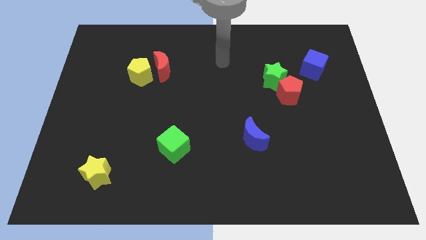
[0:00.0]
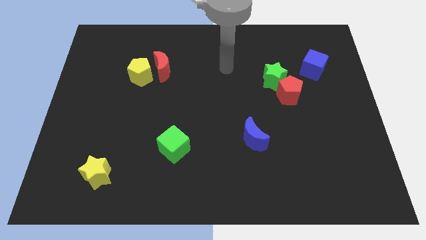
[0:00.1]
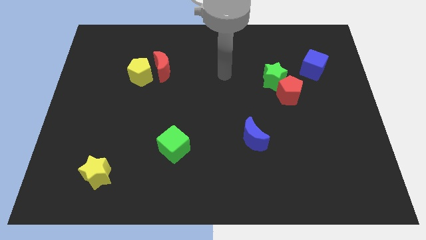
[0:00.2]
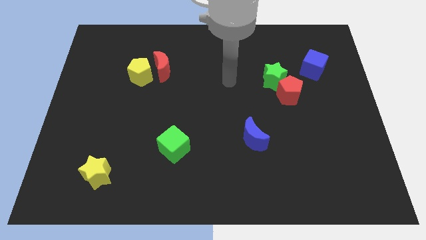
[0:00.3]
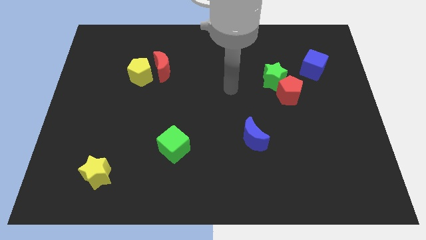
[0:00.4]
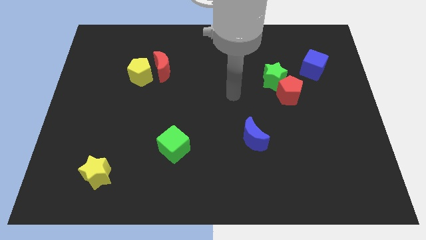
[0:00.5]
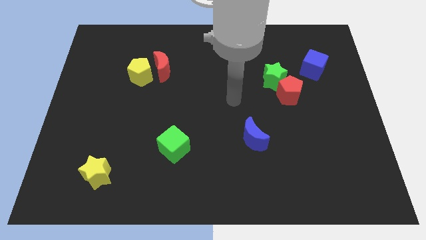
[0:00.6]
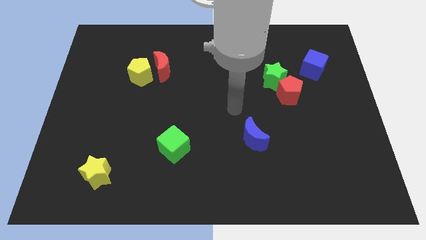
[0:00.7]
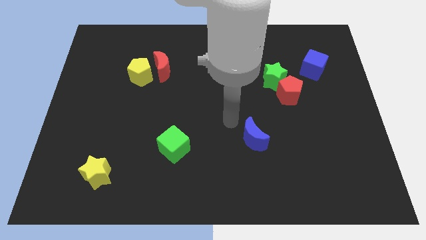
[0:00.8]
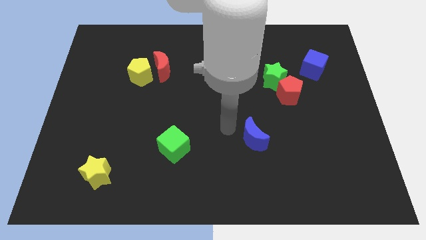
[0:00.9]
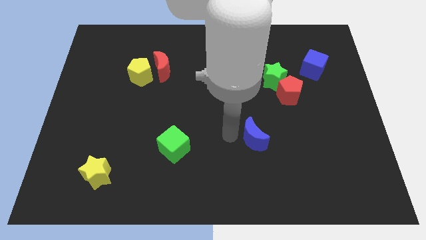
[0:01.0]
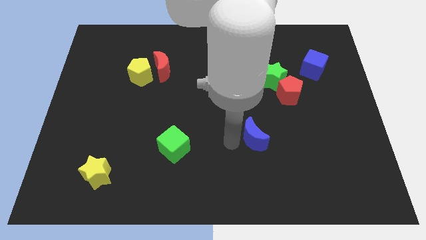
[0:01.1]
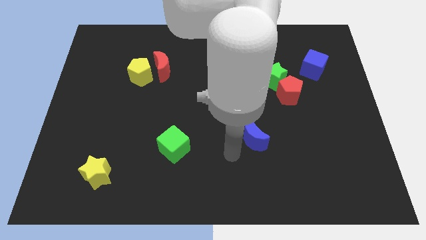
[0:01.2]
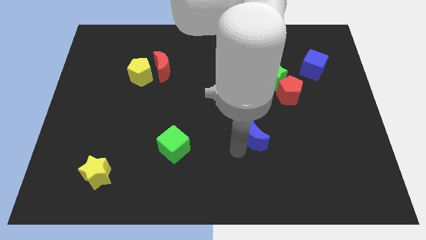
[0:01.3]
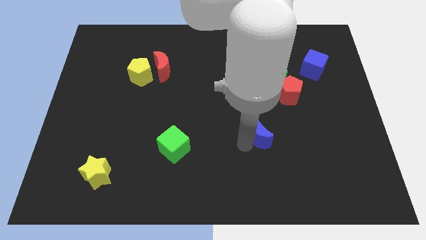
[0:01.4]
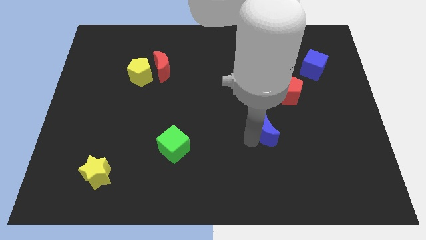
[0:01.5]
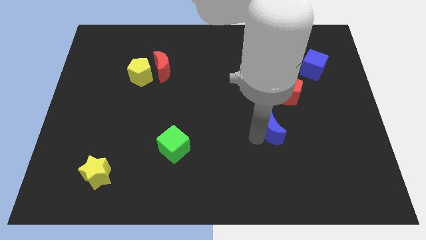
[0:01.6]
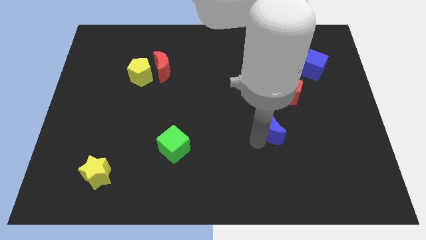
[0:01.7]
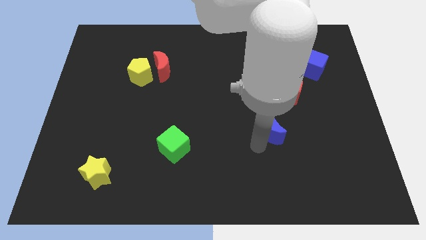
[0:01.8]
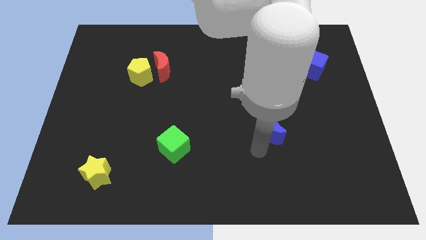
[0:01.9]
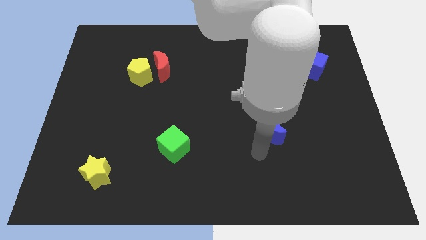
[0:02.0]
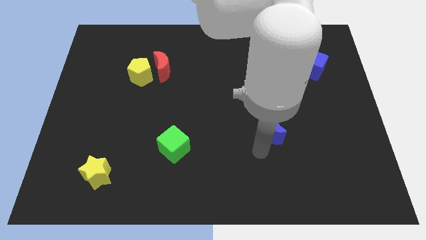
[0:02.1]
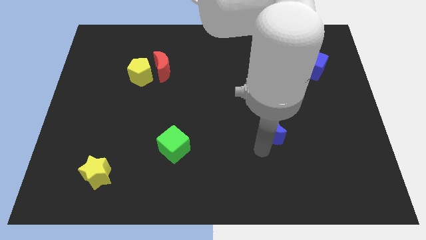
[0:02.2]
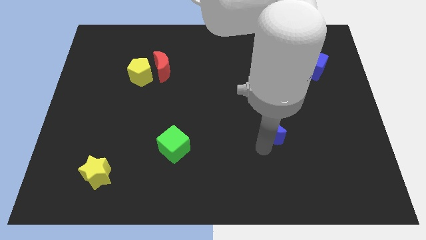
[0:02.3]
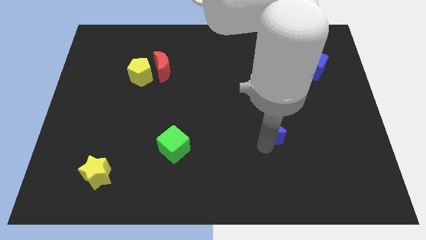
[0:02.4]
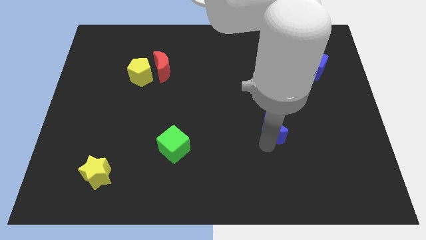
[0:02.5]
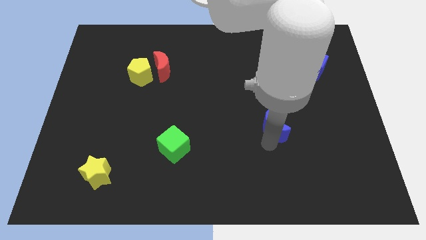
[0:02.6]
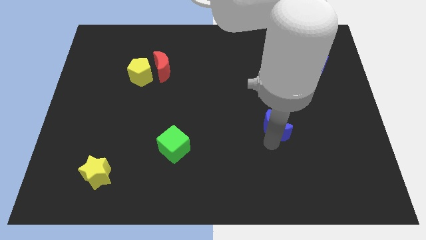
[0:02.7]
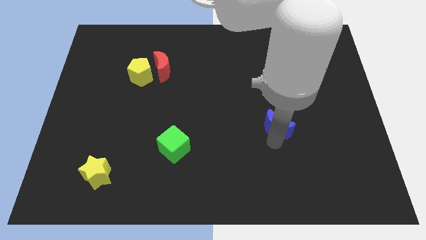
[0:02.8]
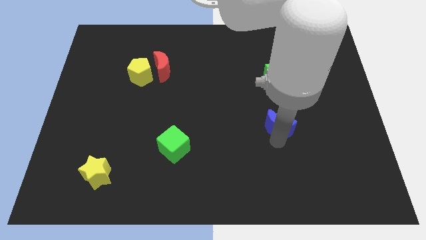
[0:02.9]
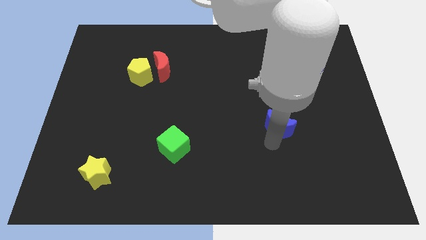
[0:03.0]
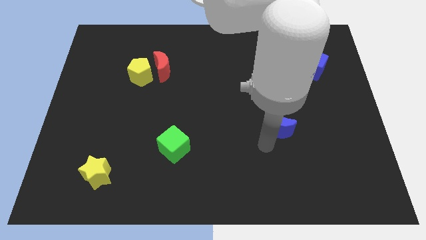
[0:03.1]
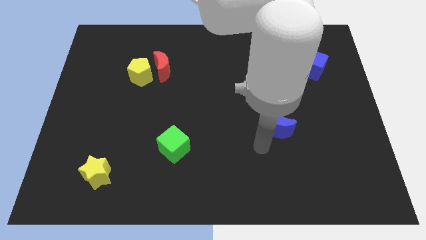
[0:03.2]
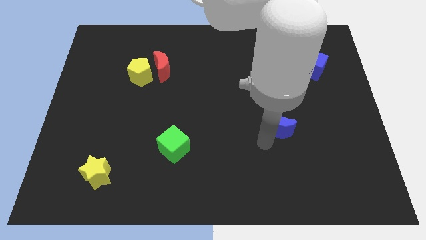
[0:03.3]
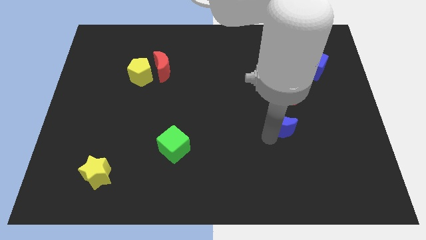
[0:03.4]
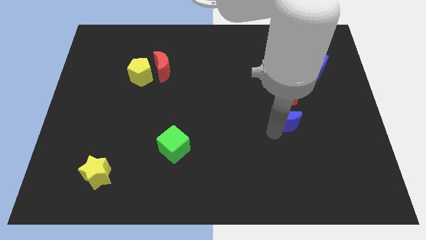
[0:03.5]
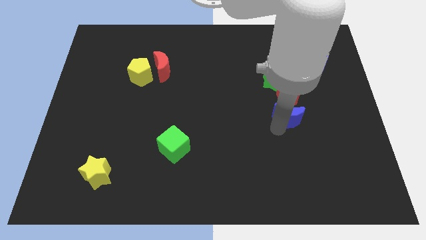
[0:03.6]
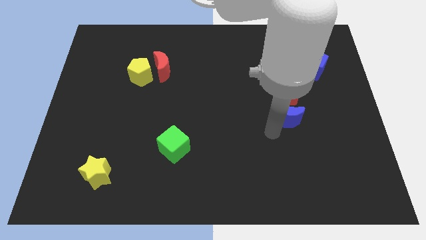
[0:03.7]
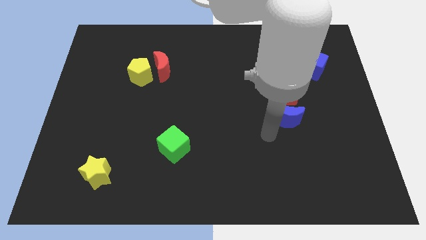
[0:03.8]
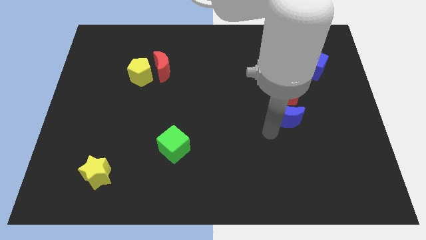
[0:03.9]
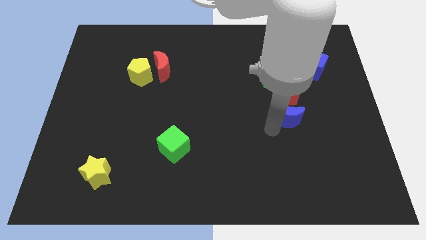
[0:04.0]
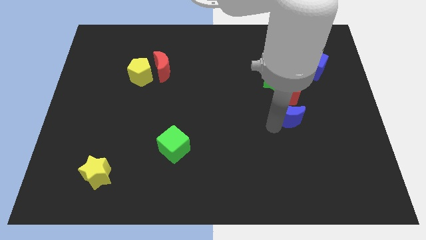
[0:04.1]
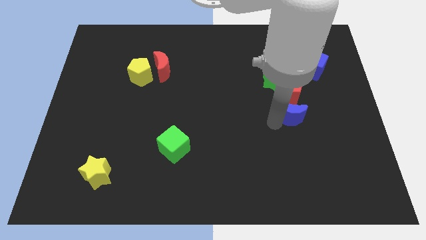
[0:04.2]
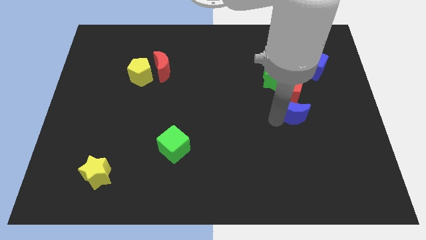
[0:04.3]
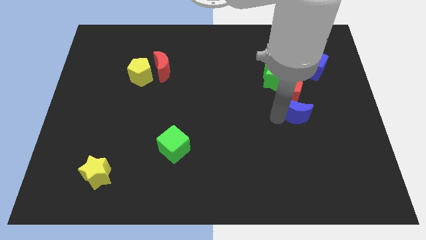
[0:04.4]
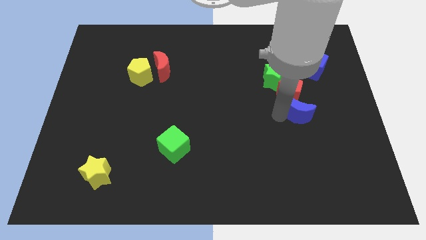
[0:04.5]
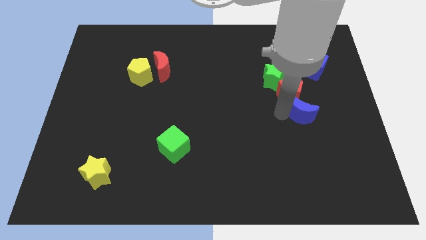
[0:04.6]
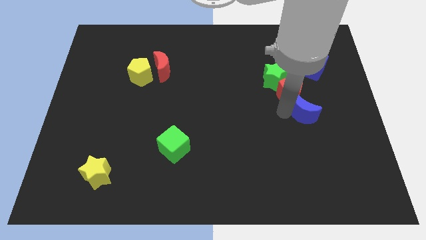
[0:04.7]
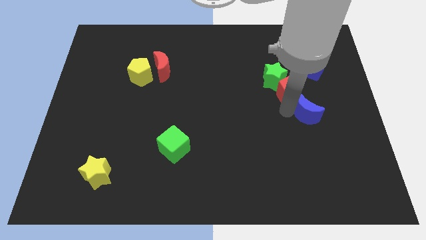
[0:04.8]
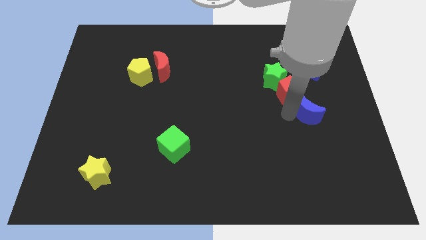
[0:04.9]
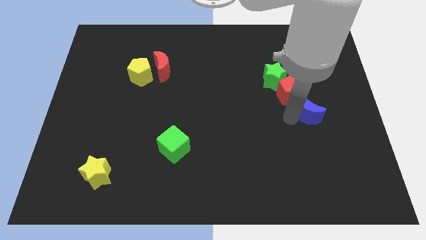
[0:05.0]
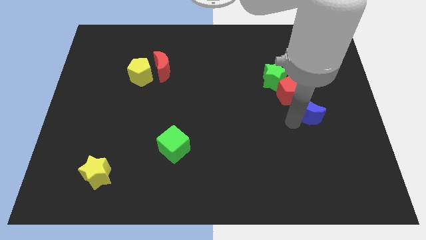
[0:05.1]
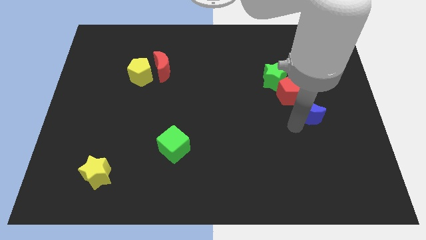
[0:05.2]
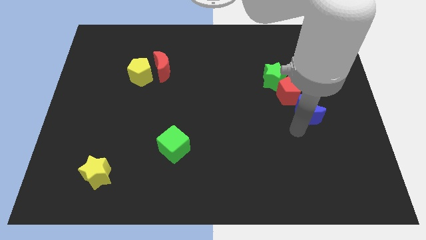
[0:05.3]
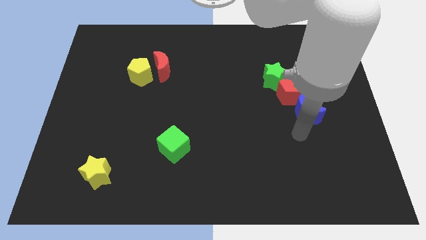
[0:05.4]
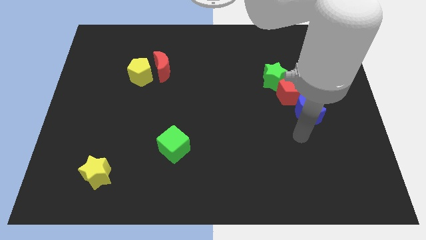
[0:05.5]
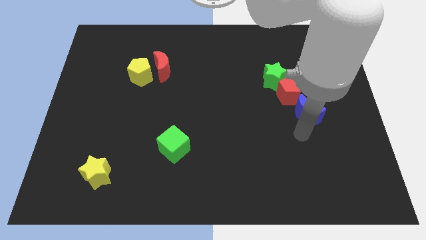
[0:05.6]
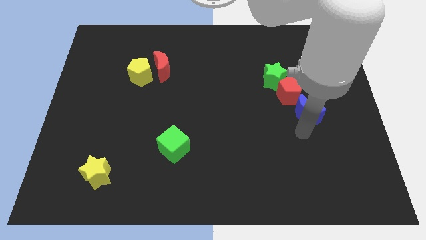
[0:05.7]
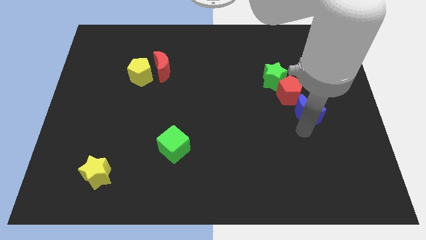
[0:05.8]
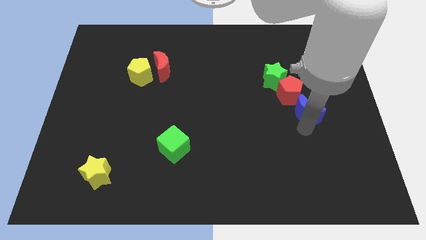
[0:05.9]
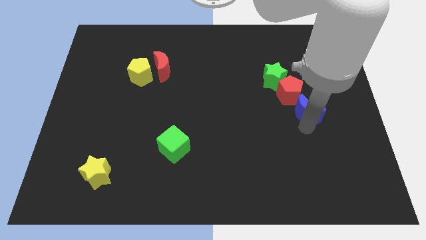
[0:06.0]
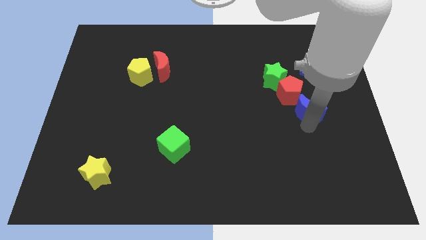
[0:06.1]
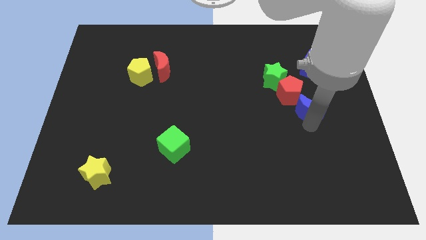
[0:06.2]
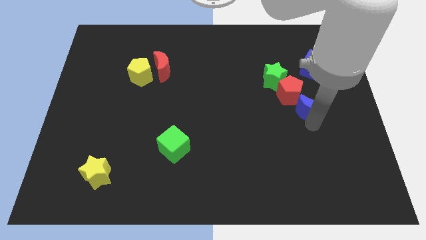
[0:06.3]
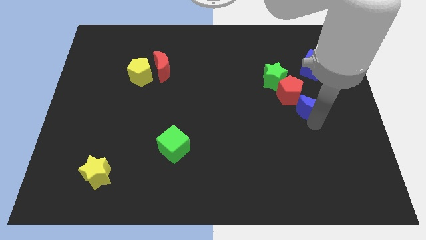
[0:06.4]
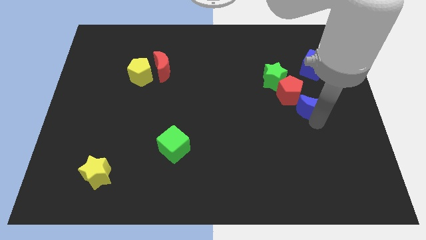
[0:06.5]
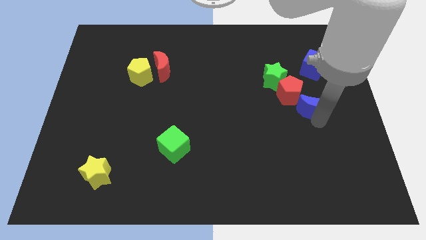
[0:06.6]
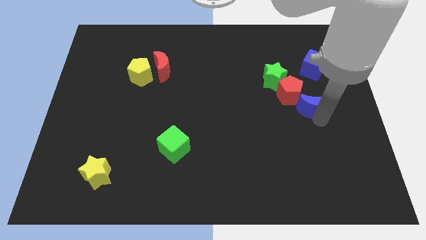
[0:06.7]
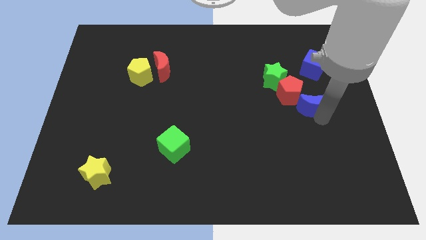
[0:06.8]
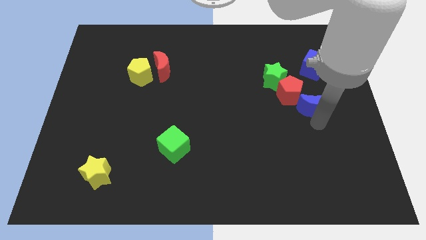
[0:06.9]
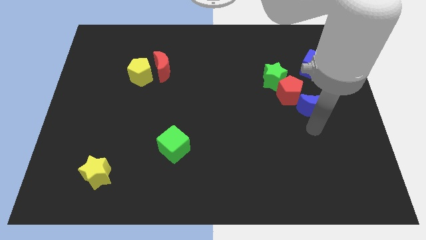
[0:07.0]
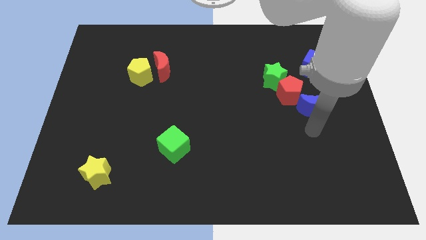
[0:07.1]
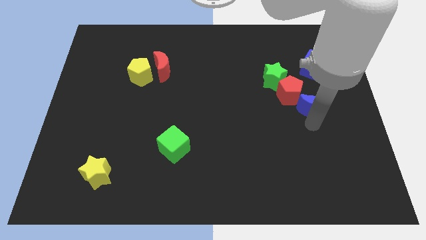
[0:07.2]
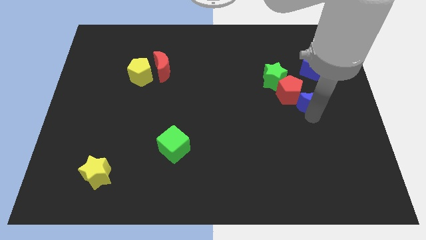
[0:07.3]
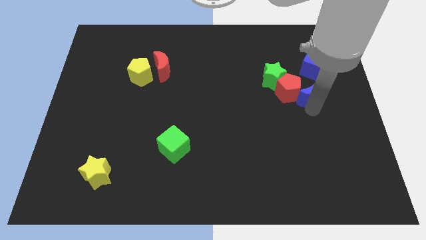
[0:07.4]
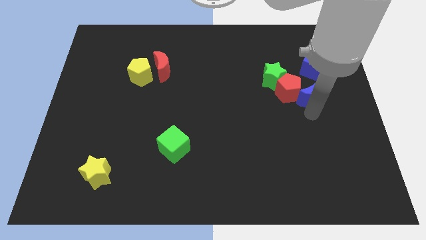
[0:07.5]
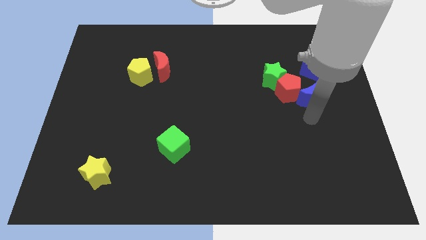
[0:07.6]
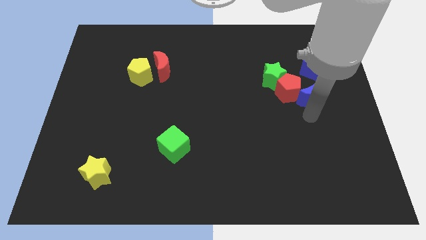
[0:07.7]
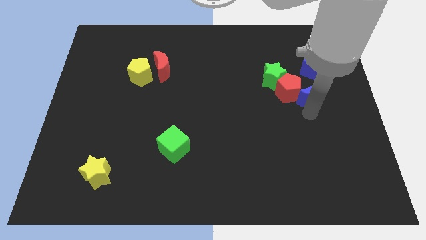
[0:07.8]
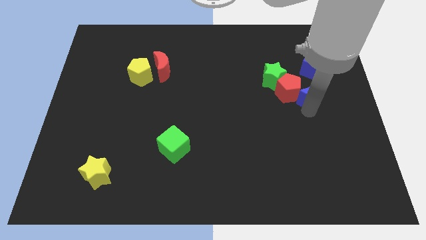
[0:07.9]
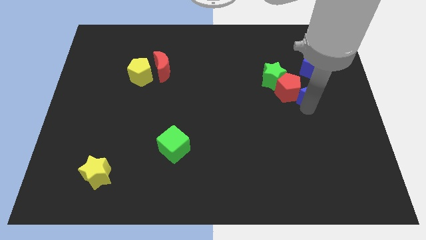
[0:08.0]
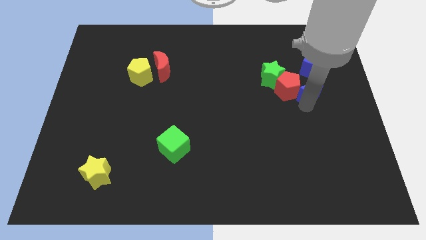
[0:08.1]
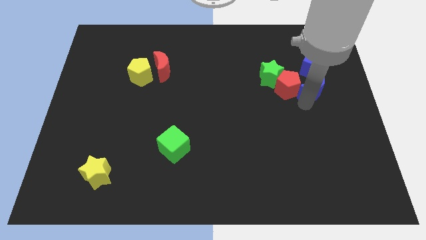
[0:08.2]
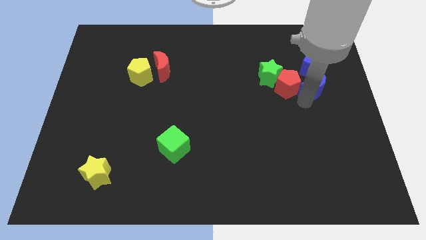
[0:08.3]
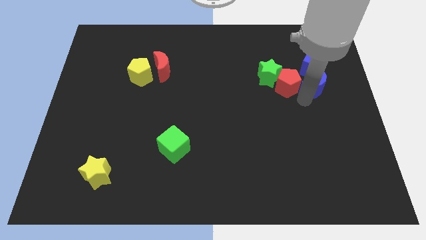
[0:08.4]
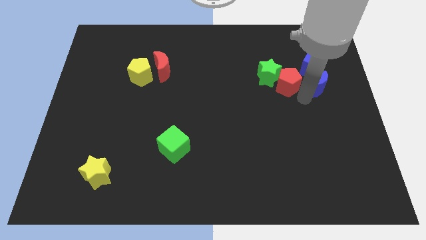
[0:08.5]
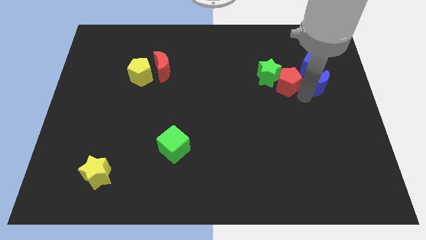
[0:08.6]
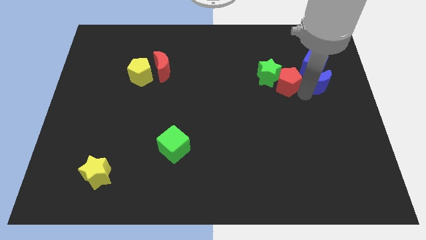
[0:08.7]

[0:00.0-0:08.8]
move the blue moon next to the blue cube
